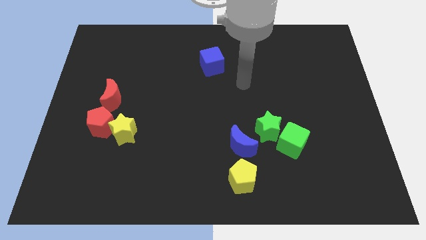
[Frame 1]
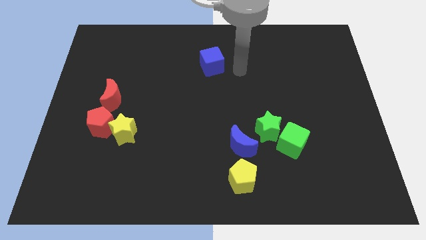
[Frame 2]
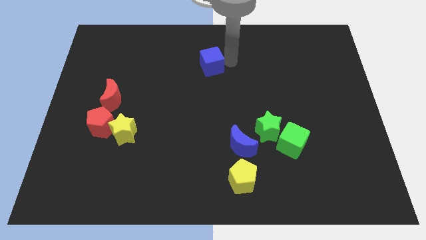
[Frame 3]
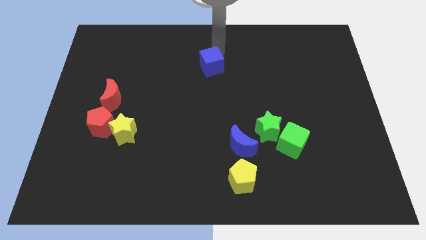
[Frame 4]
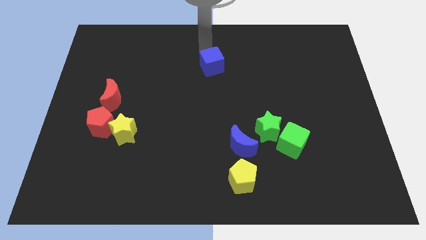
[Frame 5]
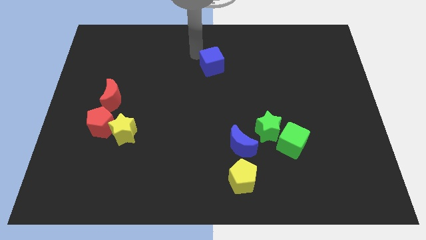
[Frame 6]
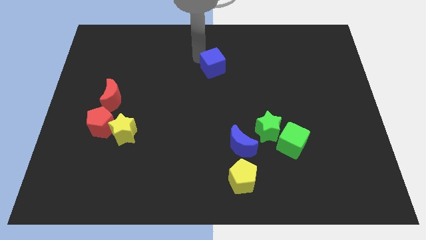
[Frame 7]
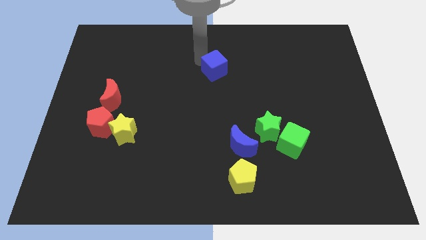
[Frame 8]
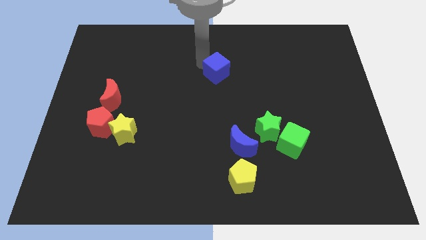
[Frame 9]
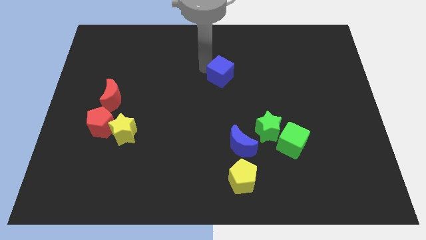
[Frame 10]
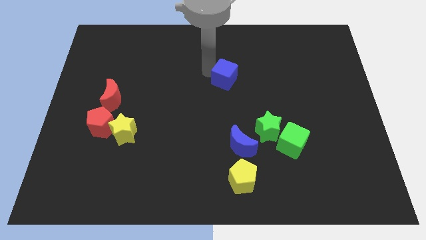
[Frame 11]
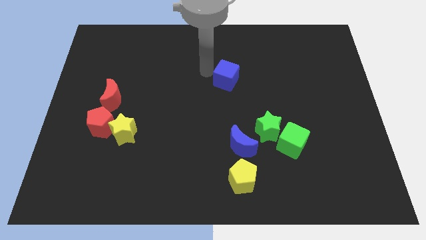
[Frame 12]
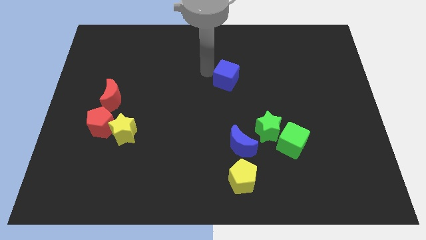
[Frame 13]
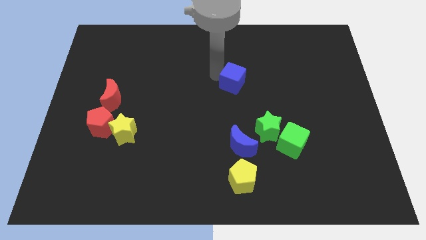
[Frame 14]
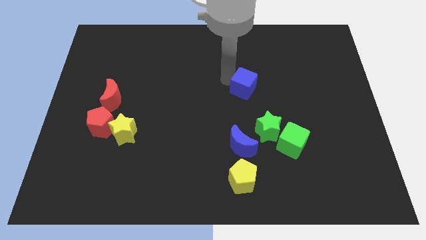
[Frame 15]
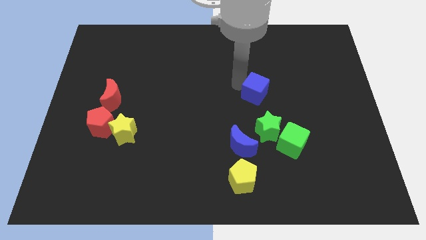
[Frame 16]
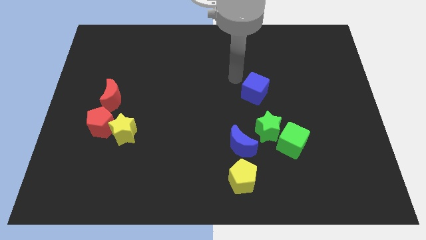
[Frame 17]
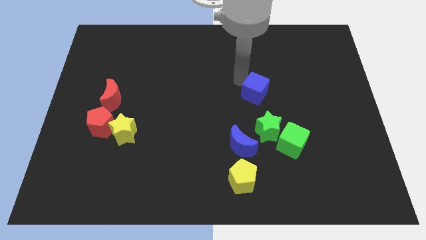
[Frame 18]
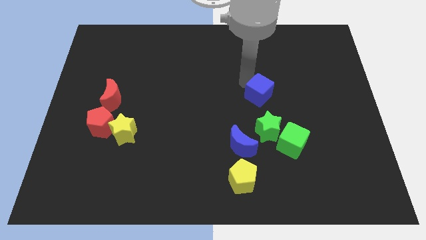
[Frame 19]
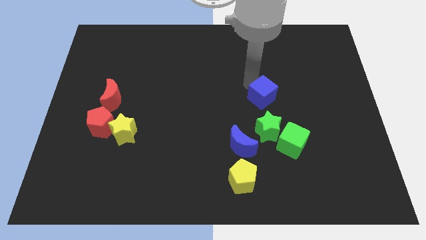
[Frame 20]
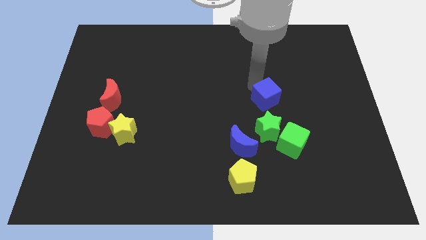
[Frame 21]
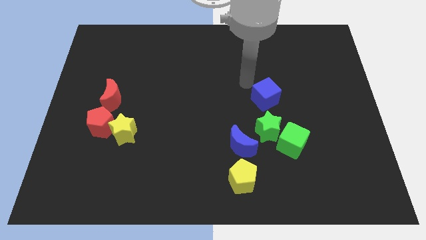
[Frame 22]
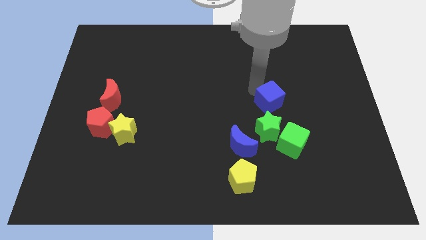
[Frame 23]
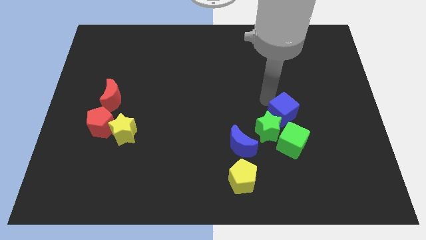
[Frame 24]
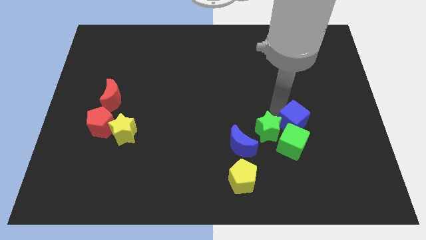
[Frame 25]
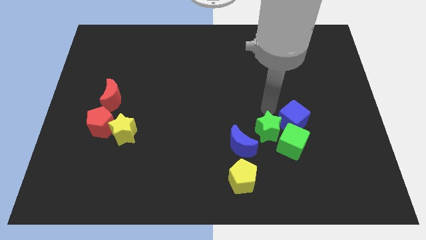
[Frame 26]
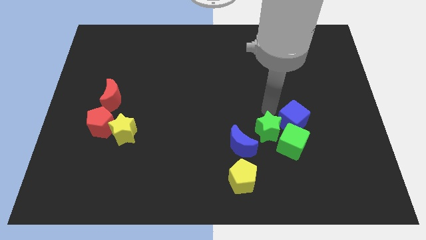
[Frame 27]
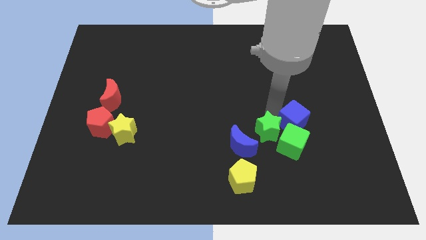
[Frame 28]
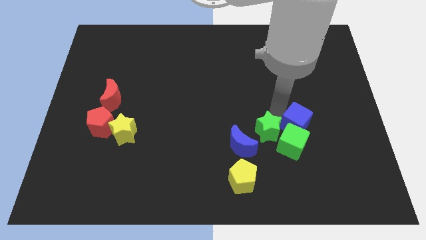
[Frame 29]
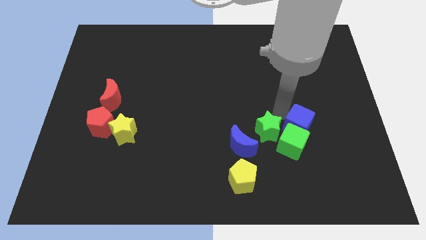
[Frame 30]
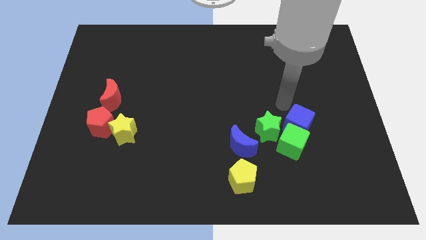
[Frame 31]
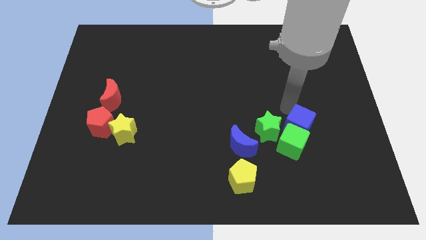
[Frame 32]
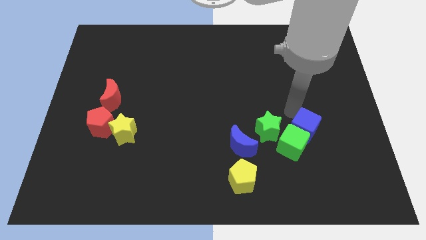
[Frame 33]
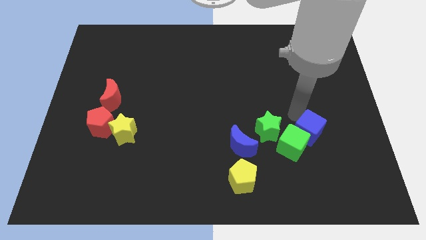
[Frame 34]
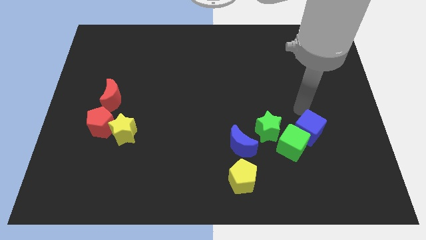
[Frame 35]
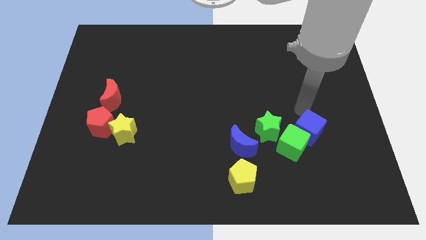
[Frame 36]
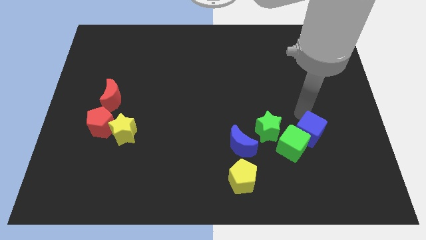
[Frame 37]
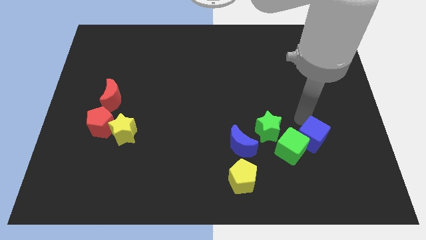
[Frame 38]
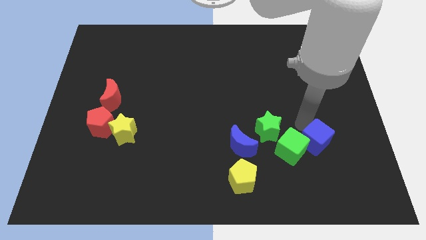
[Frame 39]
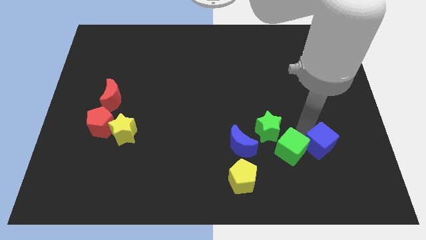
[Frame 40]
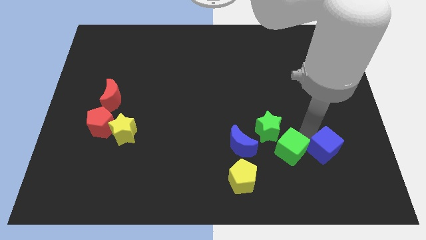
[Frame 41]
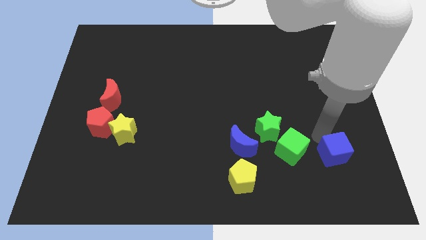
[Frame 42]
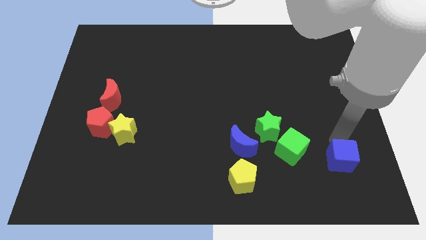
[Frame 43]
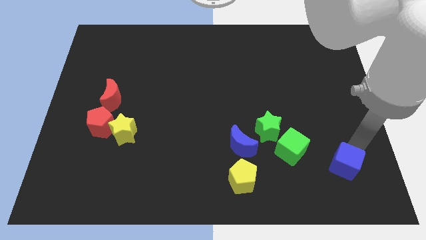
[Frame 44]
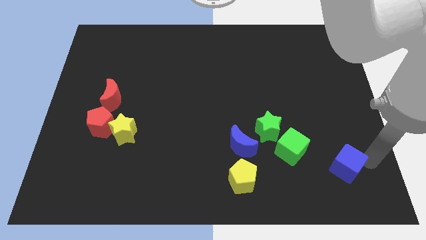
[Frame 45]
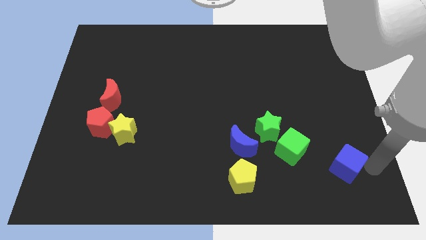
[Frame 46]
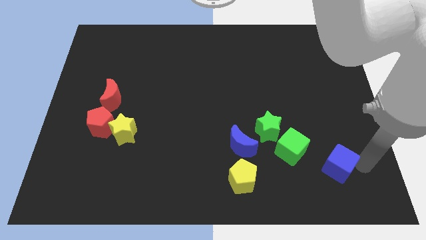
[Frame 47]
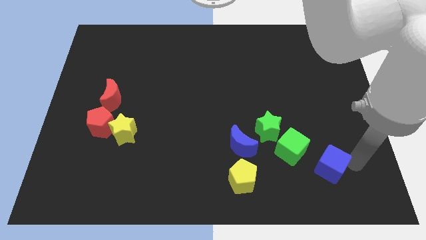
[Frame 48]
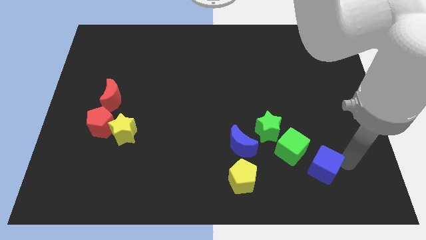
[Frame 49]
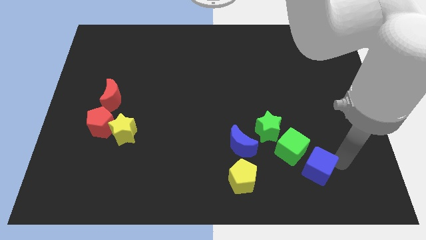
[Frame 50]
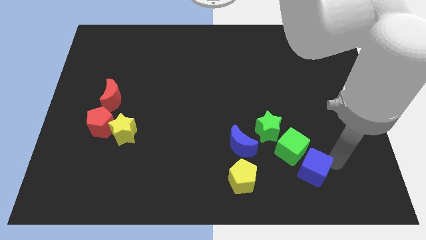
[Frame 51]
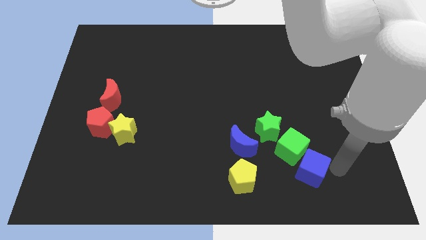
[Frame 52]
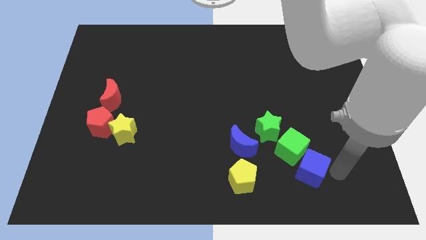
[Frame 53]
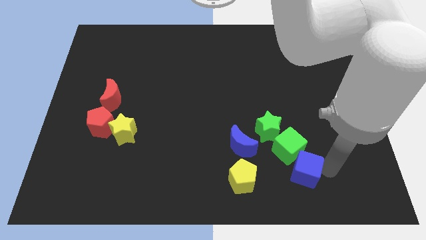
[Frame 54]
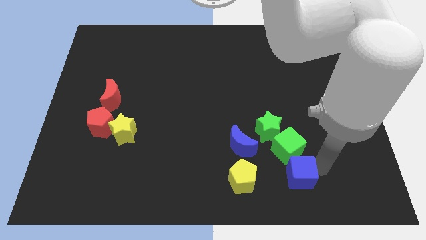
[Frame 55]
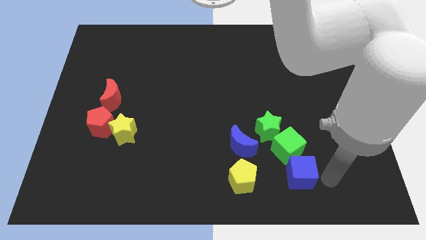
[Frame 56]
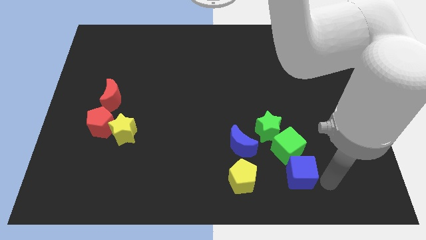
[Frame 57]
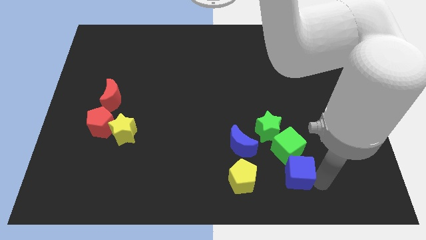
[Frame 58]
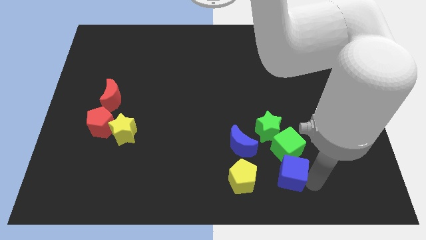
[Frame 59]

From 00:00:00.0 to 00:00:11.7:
move the blue cube diagonally down and to the right of the blue moon
